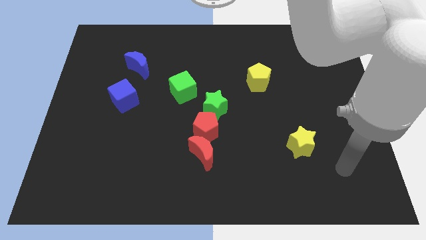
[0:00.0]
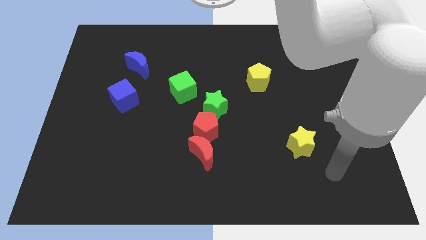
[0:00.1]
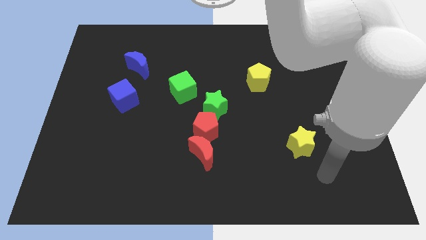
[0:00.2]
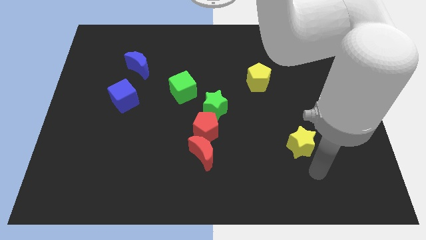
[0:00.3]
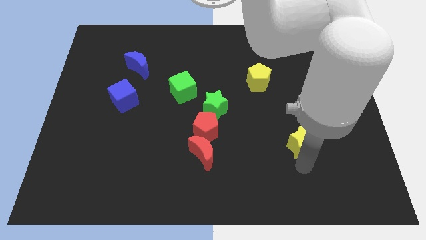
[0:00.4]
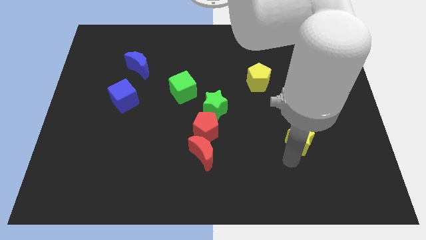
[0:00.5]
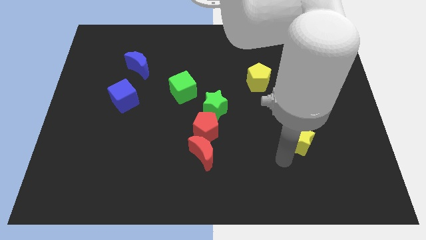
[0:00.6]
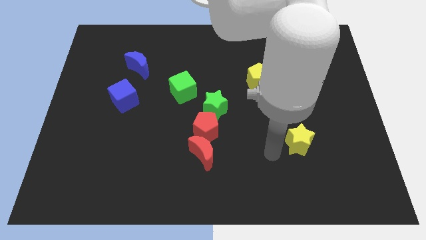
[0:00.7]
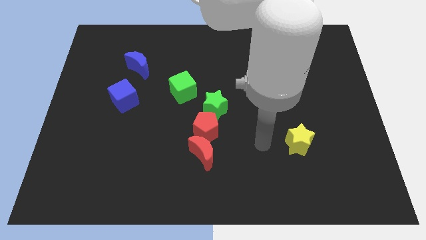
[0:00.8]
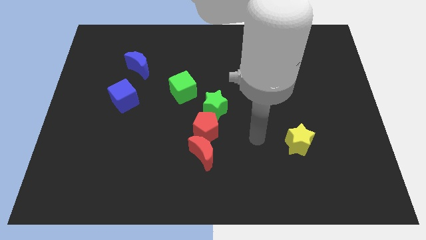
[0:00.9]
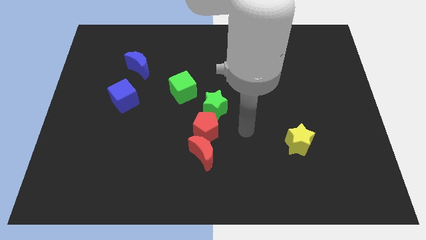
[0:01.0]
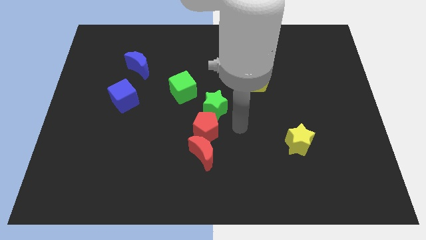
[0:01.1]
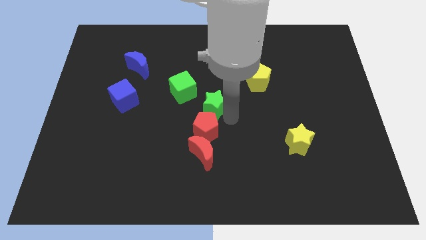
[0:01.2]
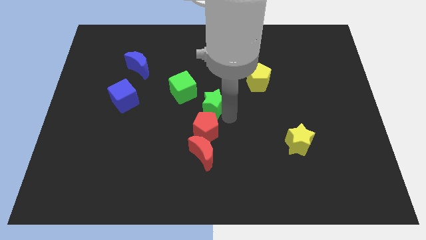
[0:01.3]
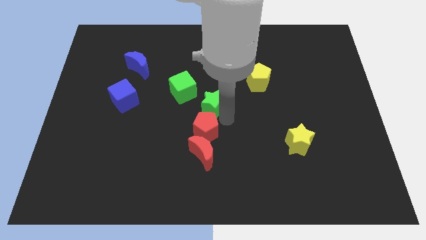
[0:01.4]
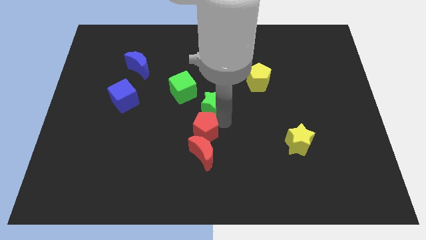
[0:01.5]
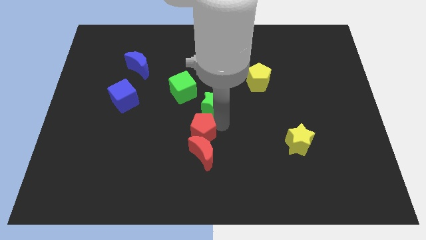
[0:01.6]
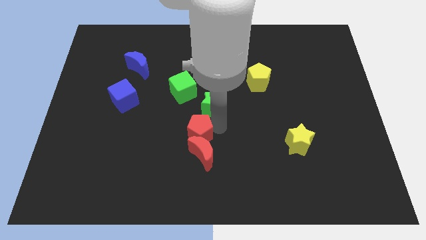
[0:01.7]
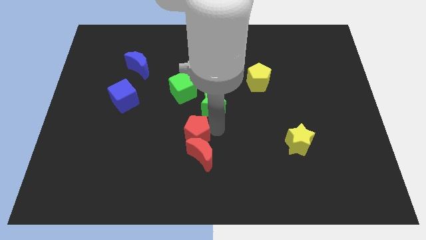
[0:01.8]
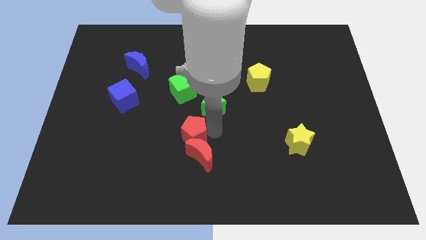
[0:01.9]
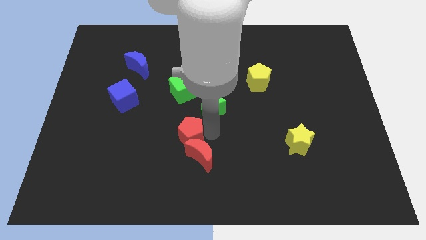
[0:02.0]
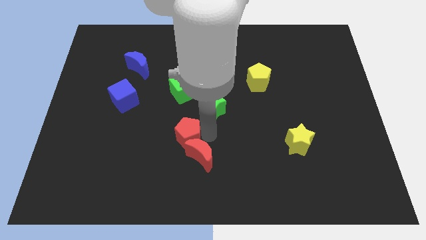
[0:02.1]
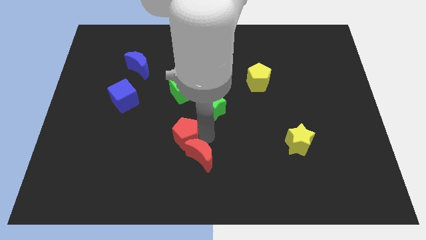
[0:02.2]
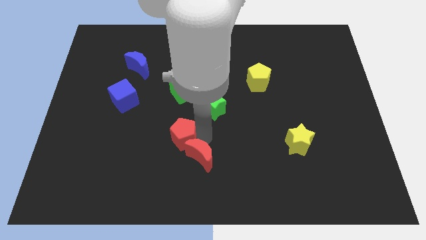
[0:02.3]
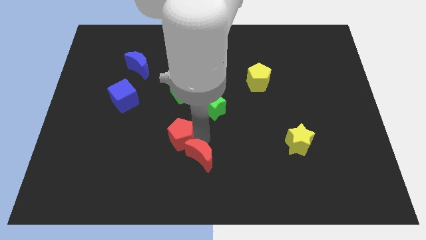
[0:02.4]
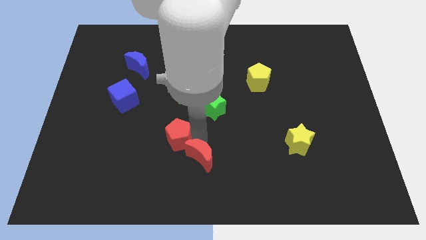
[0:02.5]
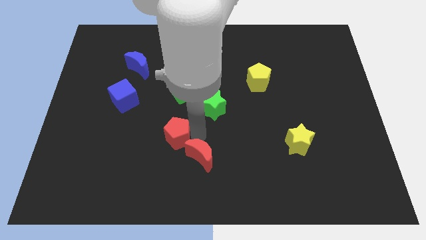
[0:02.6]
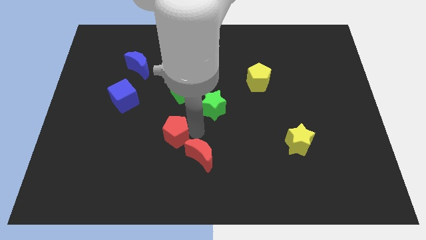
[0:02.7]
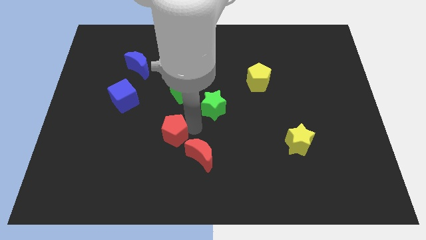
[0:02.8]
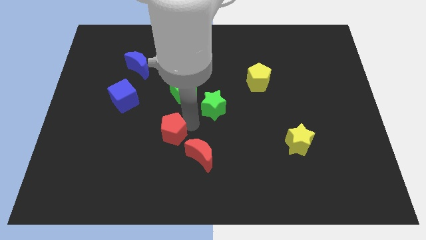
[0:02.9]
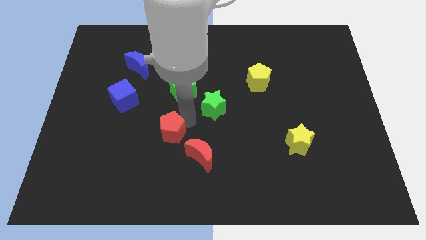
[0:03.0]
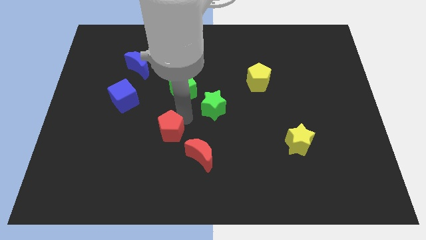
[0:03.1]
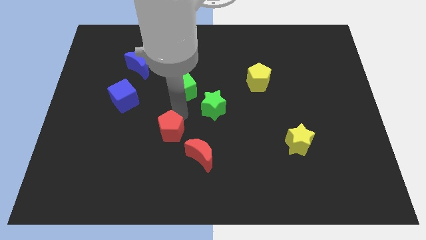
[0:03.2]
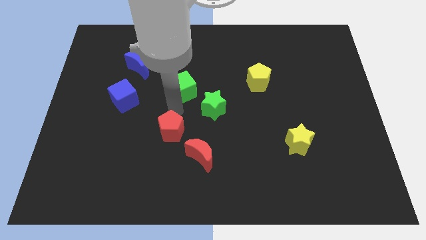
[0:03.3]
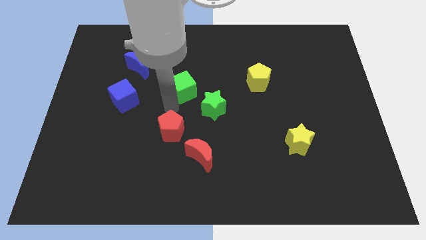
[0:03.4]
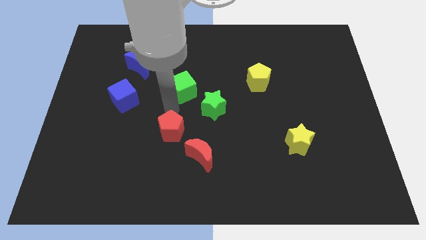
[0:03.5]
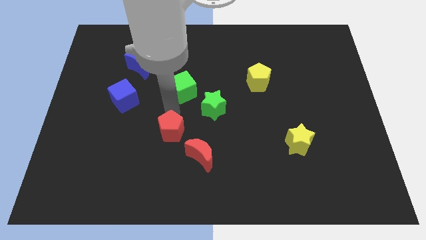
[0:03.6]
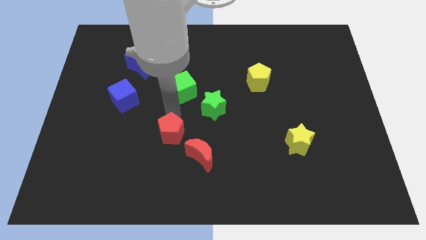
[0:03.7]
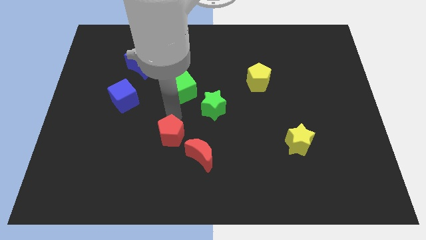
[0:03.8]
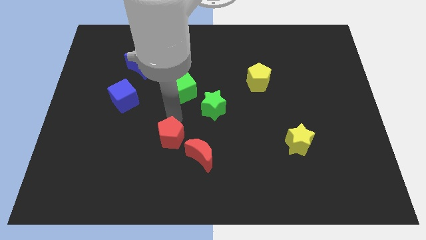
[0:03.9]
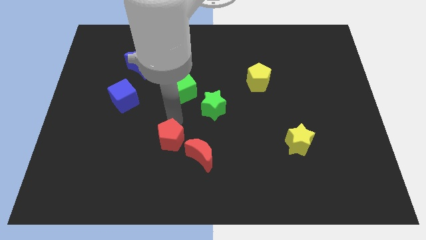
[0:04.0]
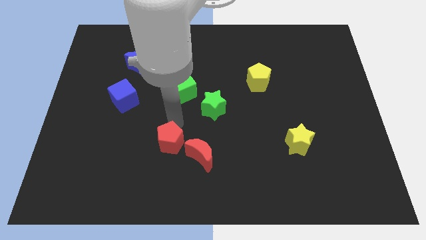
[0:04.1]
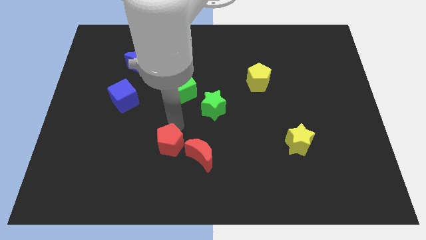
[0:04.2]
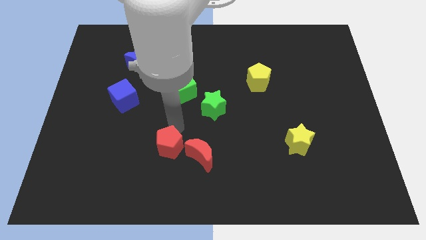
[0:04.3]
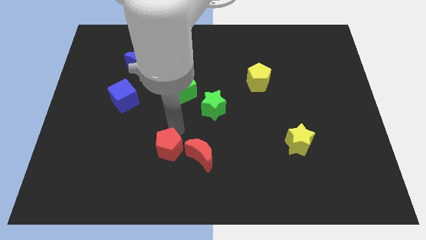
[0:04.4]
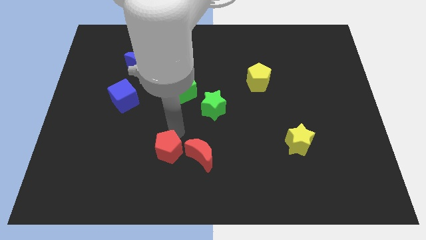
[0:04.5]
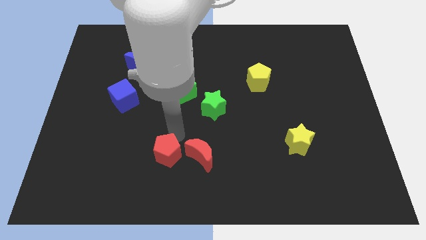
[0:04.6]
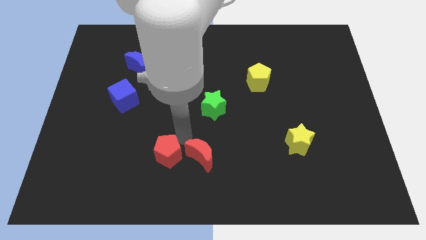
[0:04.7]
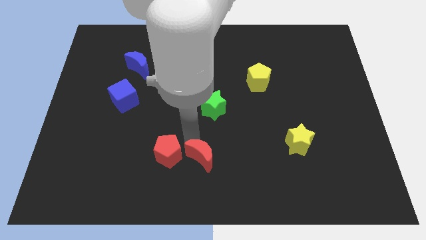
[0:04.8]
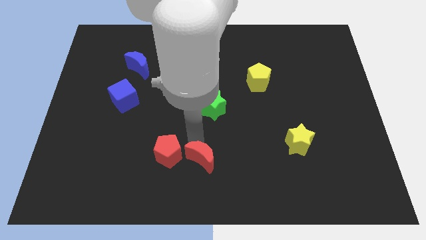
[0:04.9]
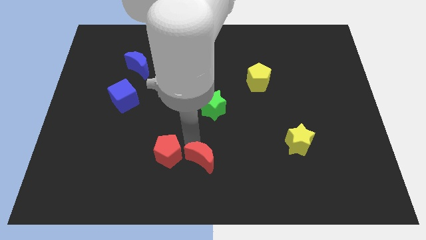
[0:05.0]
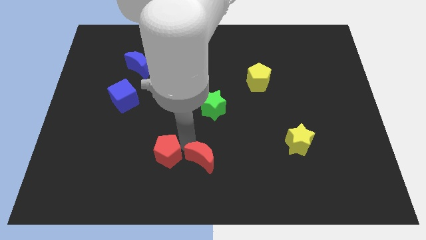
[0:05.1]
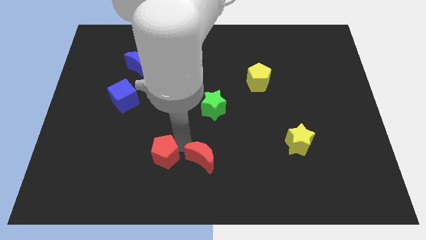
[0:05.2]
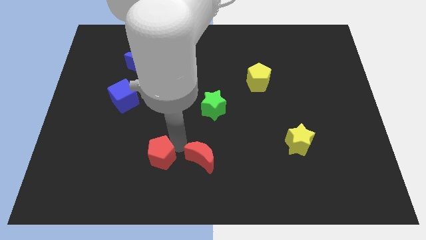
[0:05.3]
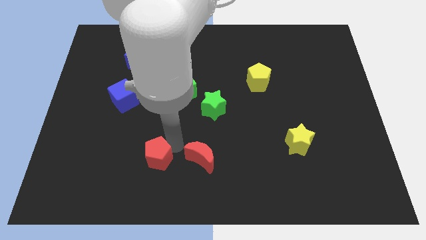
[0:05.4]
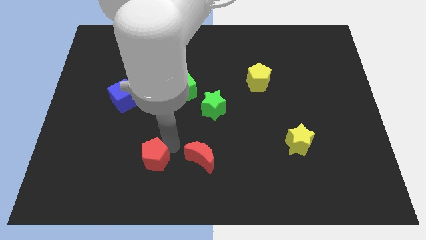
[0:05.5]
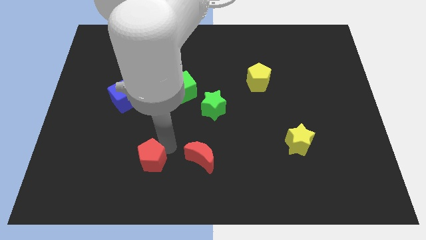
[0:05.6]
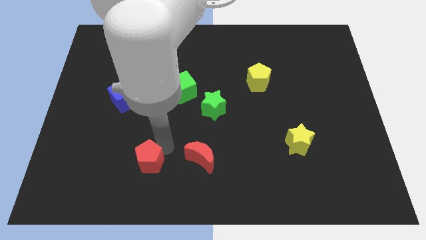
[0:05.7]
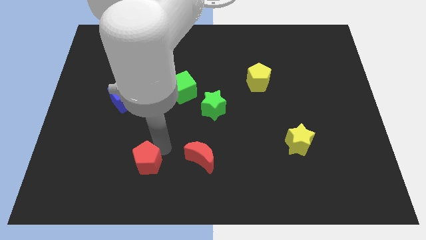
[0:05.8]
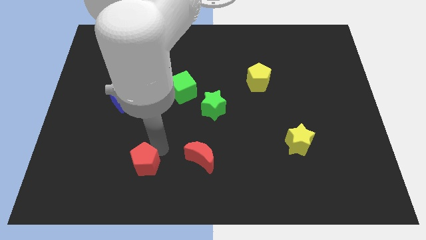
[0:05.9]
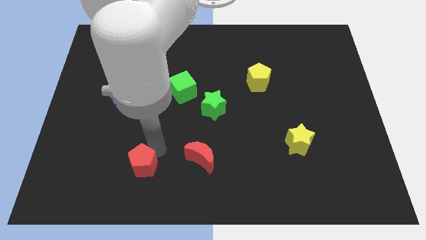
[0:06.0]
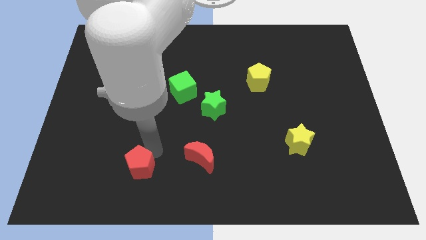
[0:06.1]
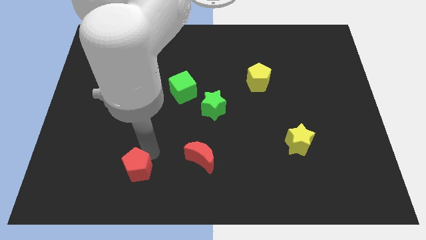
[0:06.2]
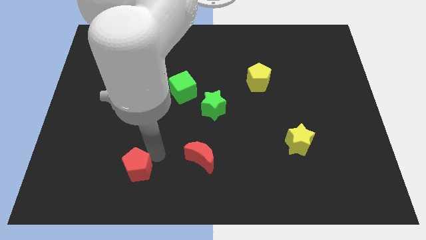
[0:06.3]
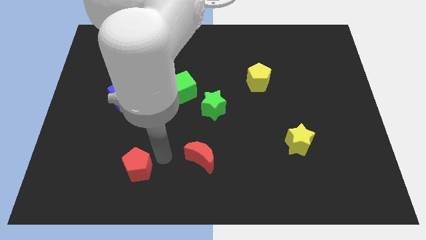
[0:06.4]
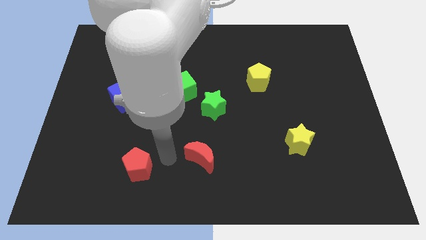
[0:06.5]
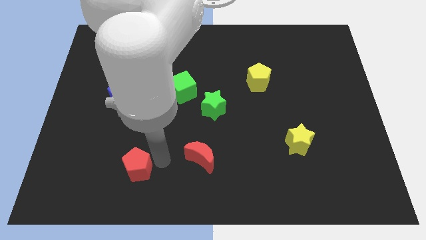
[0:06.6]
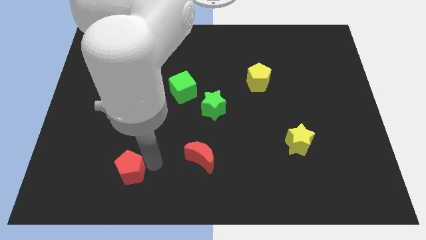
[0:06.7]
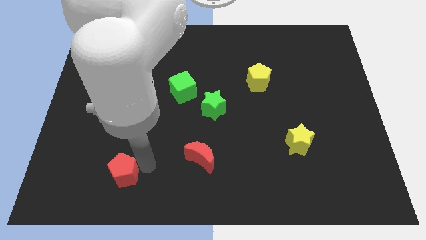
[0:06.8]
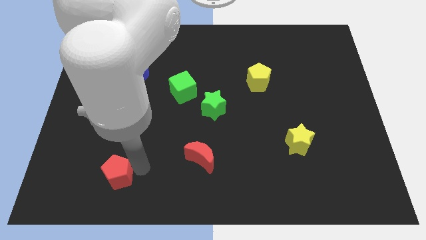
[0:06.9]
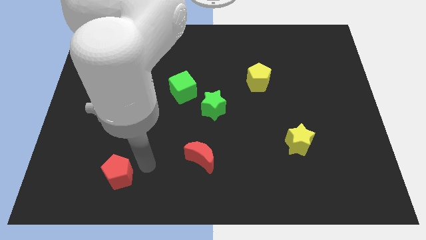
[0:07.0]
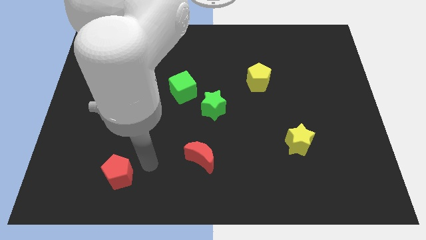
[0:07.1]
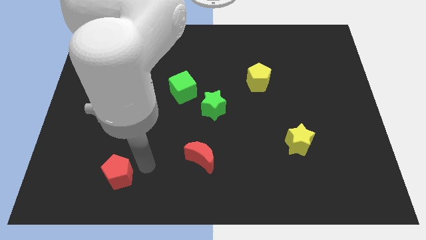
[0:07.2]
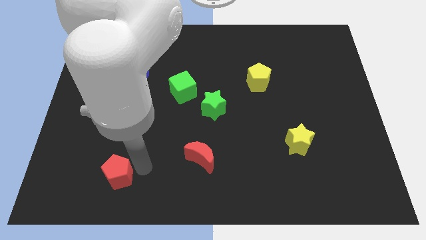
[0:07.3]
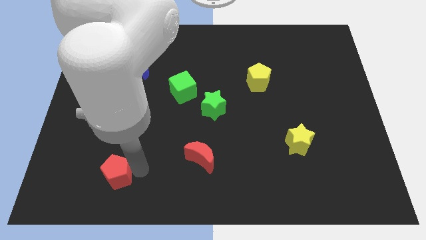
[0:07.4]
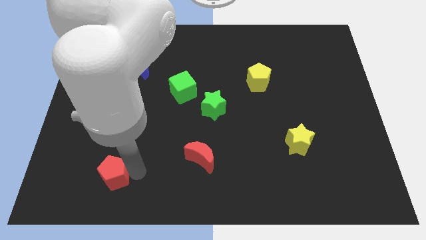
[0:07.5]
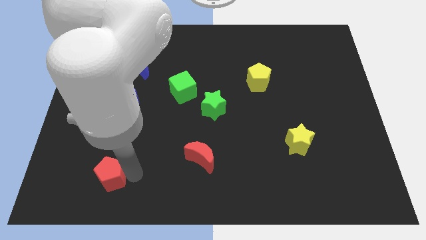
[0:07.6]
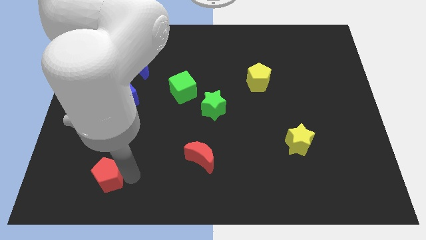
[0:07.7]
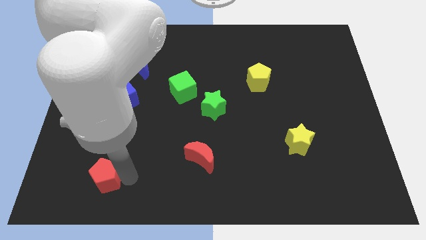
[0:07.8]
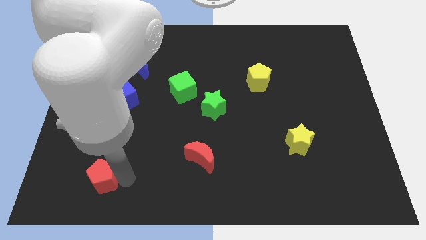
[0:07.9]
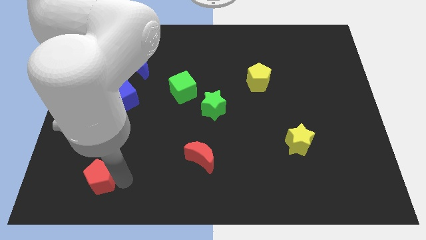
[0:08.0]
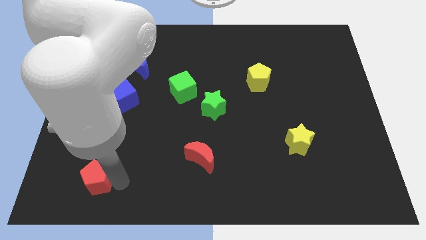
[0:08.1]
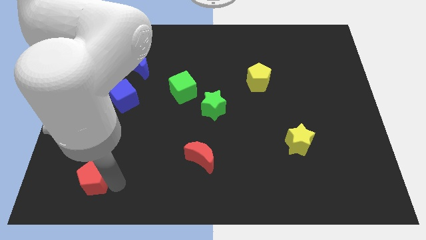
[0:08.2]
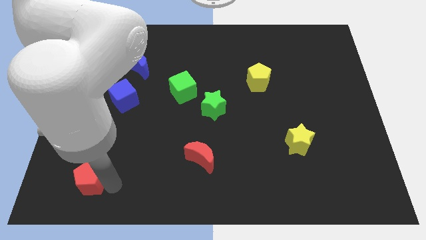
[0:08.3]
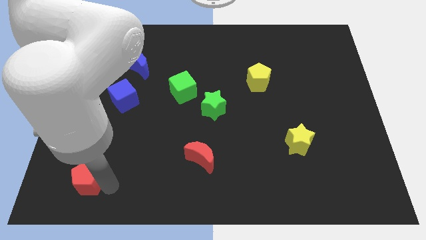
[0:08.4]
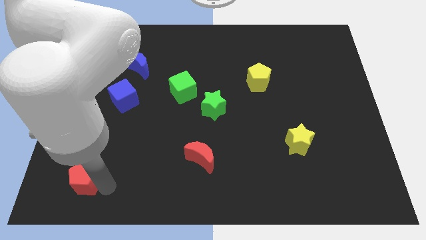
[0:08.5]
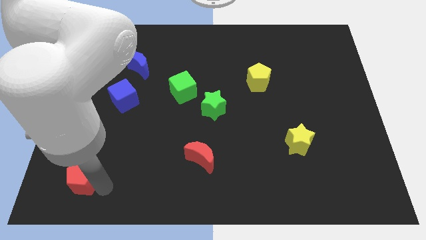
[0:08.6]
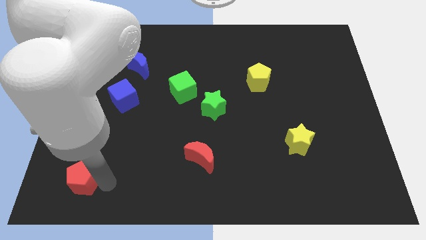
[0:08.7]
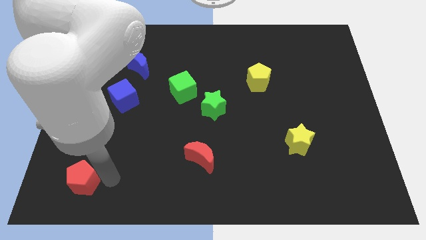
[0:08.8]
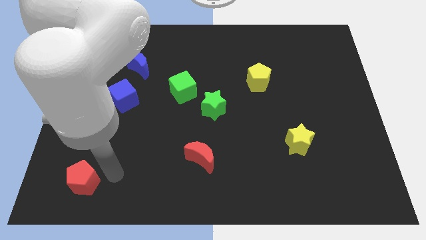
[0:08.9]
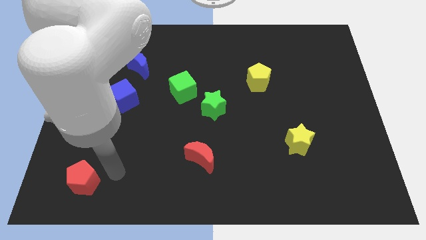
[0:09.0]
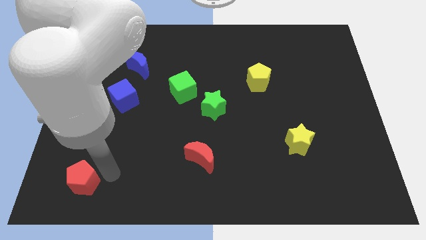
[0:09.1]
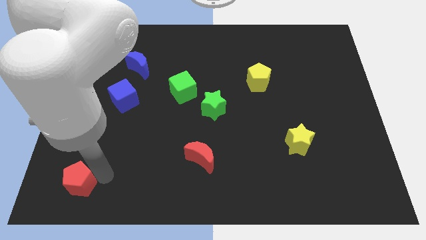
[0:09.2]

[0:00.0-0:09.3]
push the red pentagon to the bottom left corner
